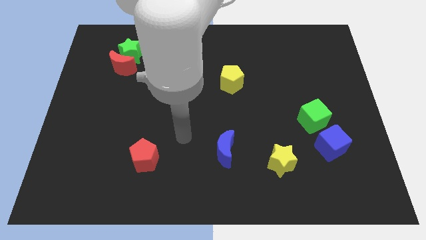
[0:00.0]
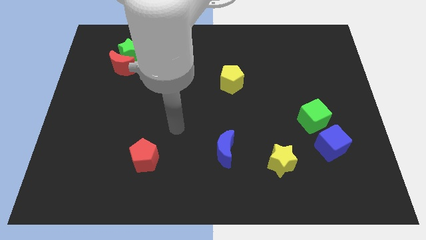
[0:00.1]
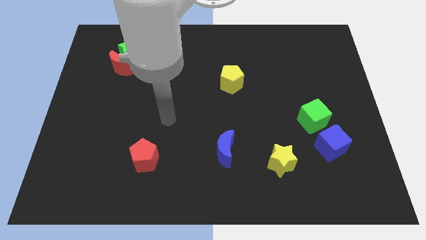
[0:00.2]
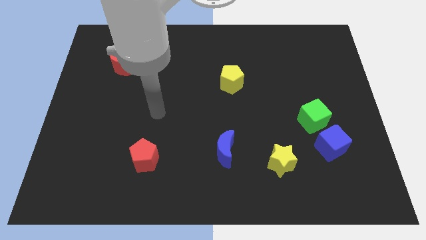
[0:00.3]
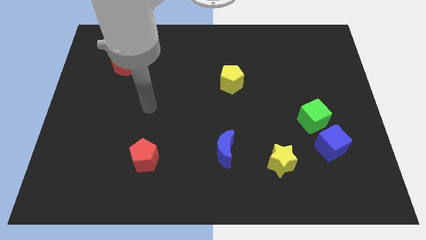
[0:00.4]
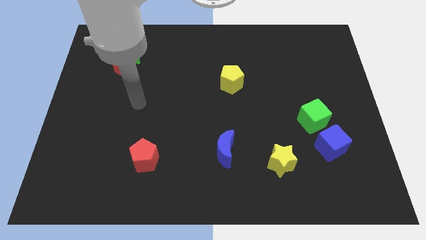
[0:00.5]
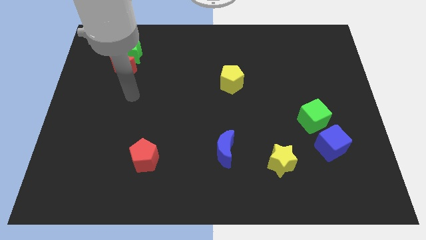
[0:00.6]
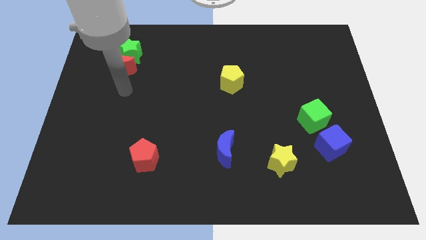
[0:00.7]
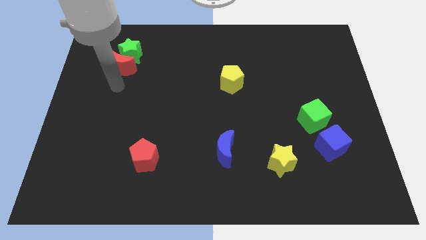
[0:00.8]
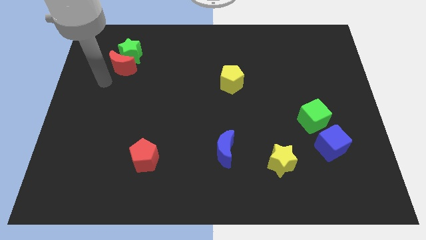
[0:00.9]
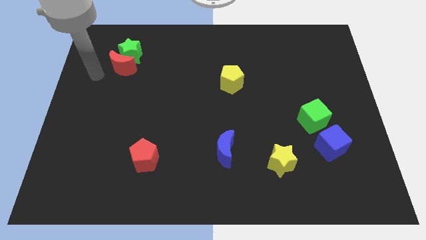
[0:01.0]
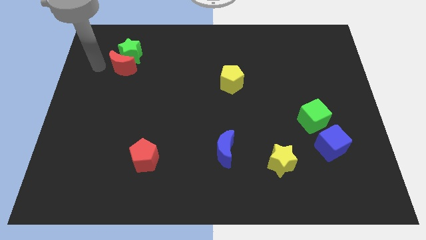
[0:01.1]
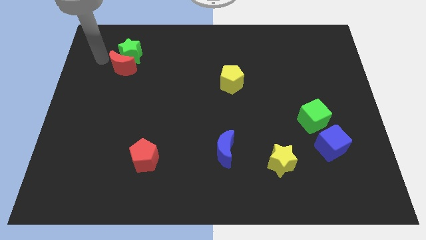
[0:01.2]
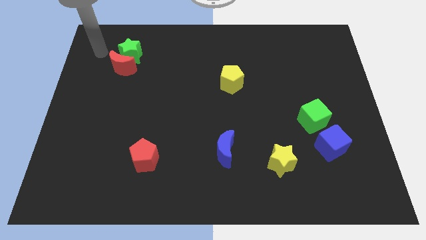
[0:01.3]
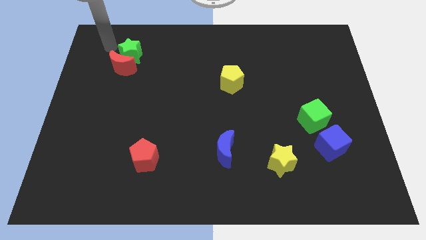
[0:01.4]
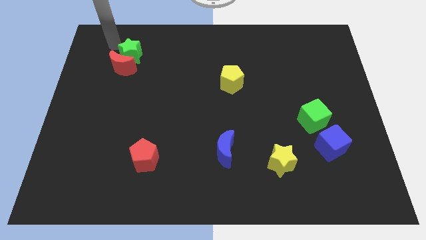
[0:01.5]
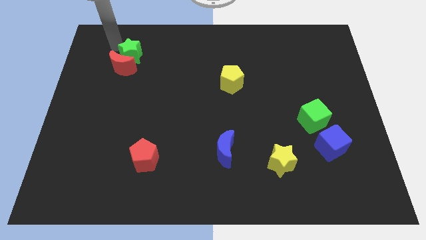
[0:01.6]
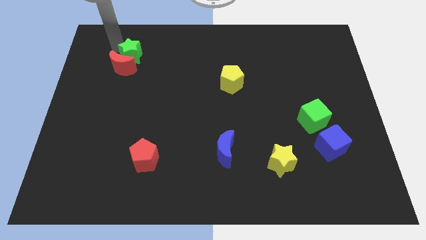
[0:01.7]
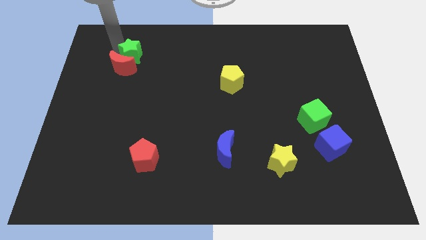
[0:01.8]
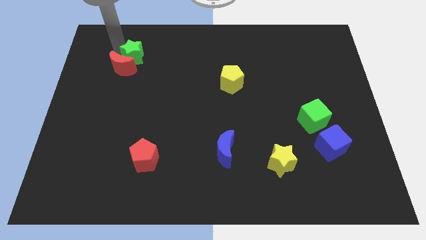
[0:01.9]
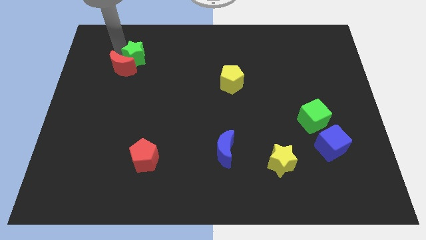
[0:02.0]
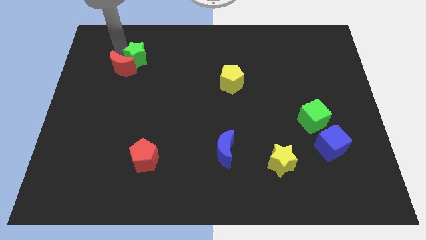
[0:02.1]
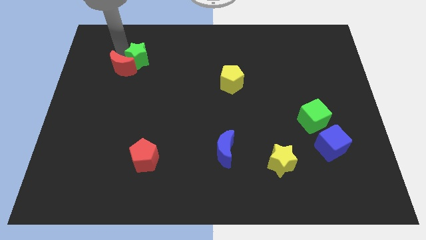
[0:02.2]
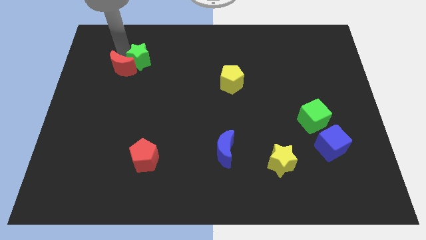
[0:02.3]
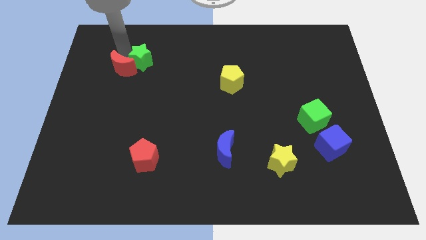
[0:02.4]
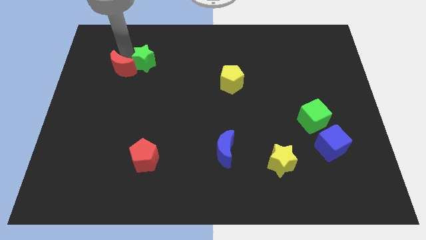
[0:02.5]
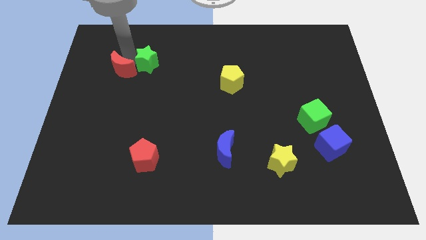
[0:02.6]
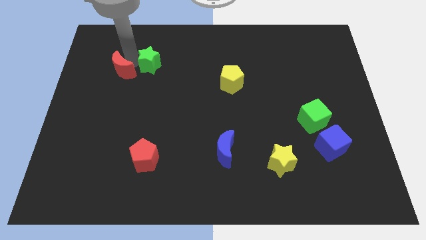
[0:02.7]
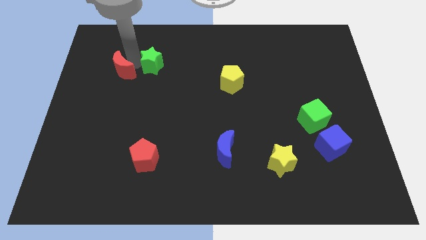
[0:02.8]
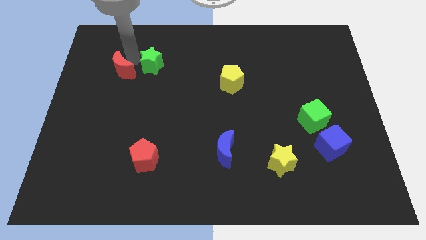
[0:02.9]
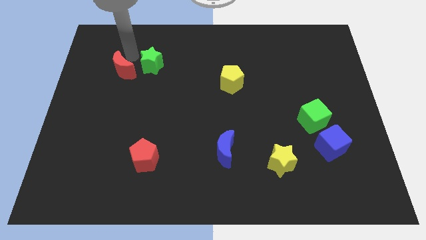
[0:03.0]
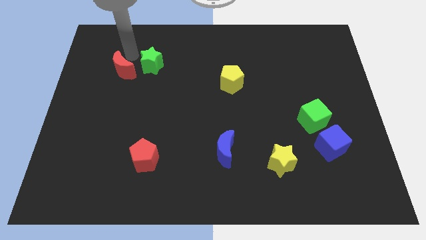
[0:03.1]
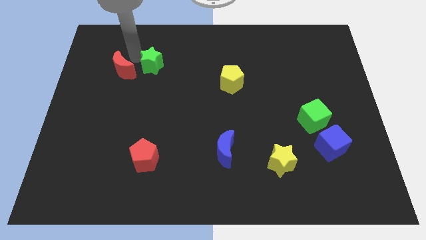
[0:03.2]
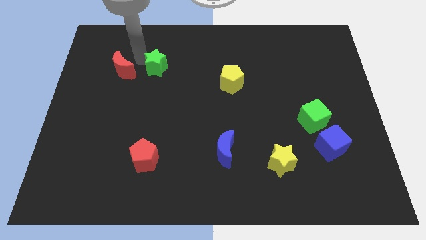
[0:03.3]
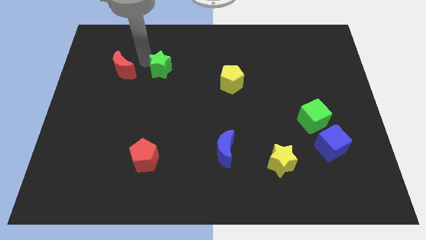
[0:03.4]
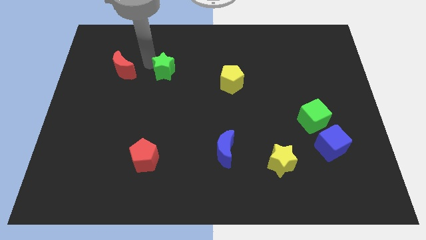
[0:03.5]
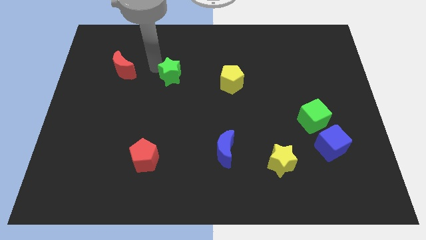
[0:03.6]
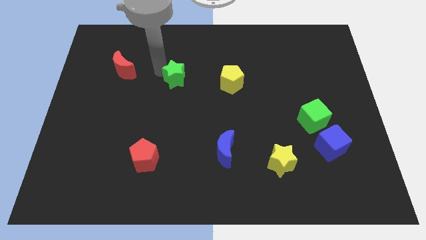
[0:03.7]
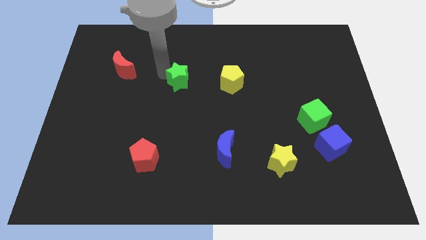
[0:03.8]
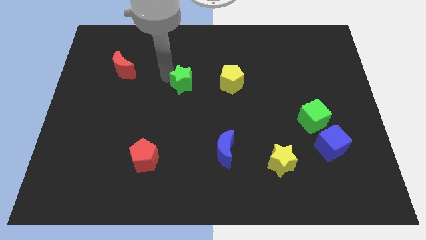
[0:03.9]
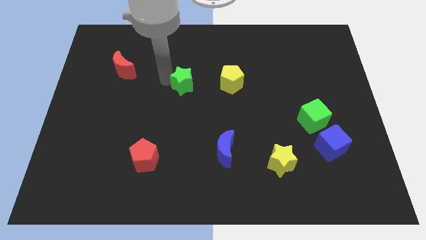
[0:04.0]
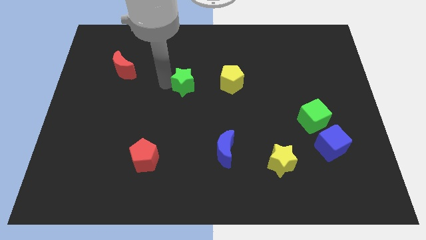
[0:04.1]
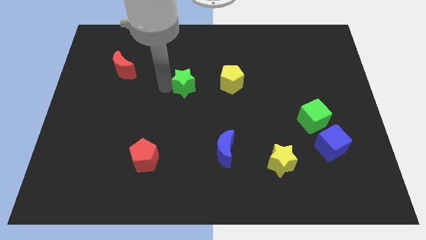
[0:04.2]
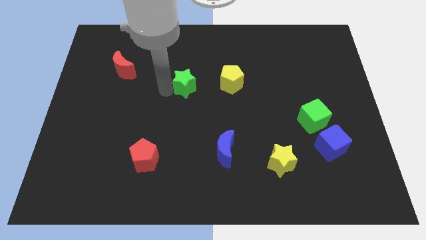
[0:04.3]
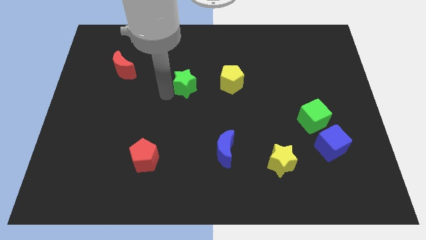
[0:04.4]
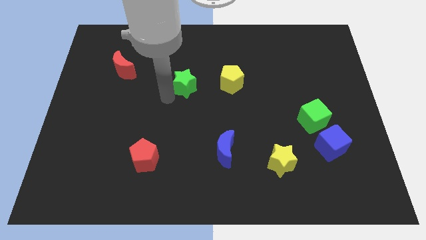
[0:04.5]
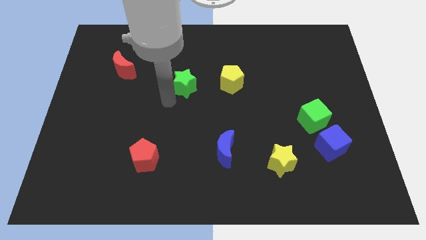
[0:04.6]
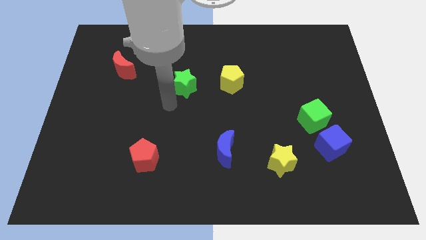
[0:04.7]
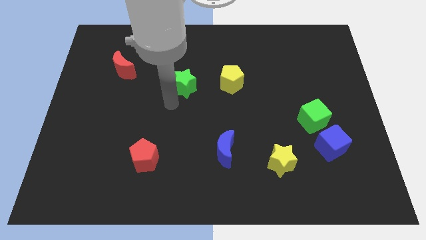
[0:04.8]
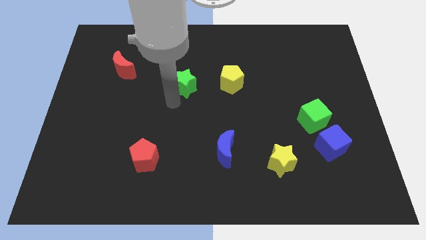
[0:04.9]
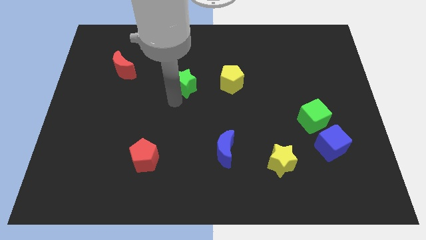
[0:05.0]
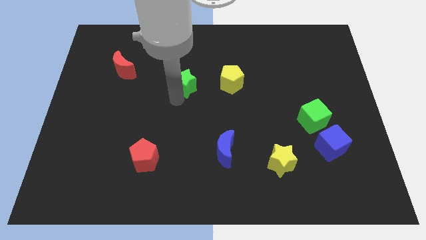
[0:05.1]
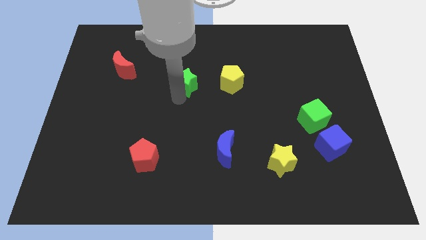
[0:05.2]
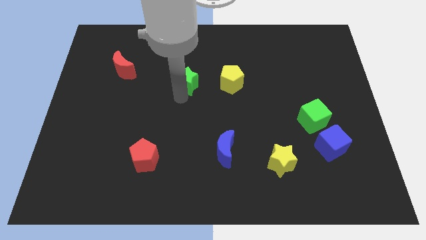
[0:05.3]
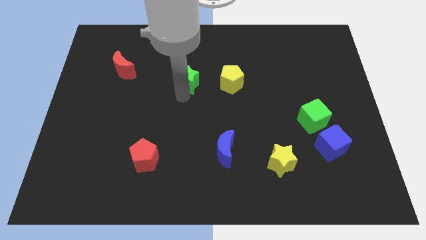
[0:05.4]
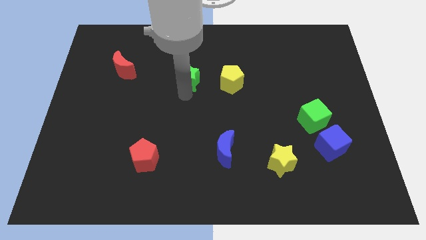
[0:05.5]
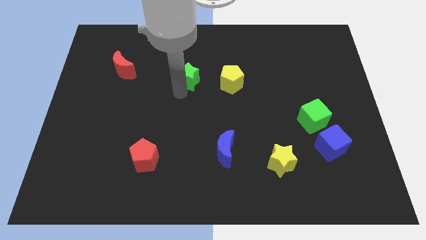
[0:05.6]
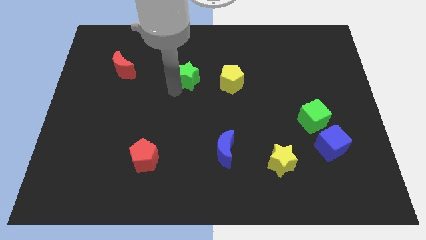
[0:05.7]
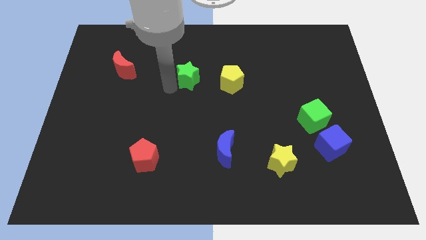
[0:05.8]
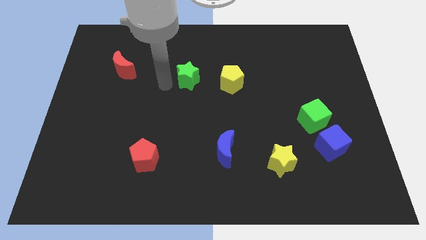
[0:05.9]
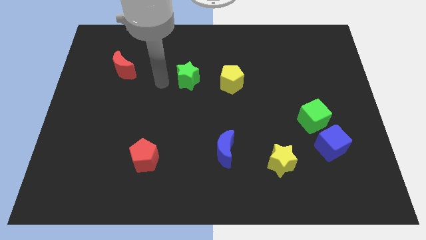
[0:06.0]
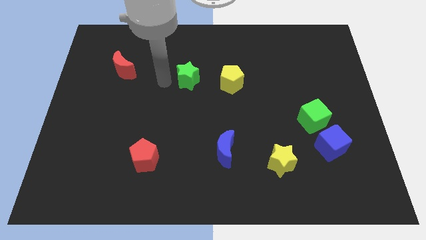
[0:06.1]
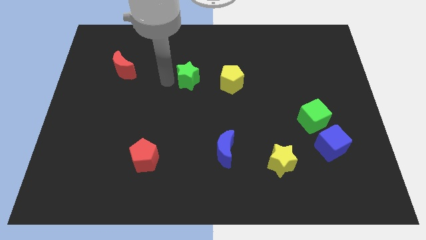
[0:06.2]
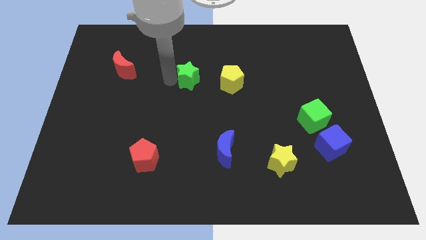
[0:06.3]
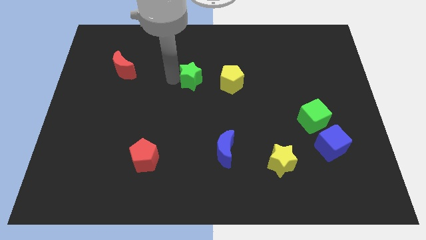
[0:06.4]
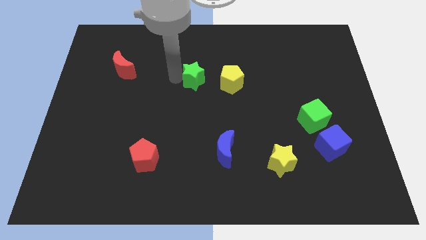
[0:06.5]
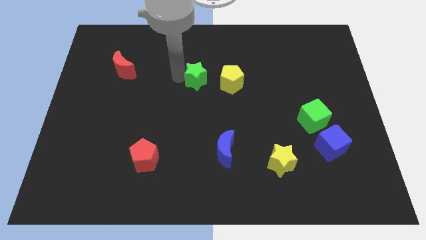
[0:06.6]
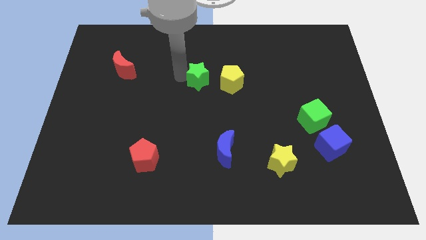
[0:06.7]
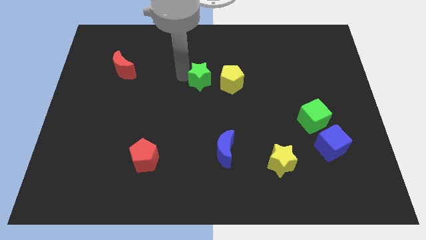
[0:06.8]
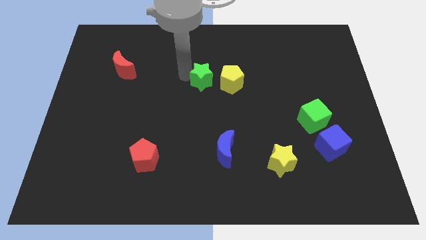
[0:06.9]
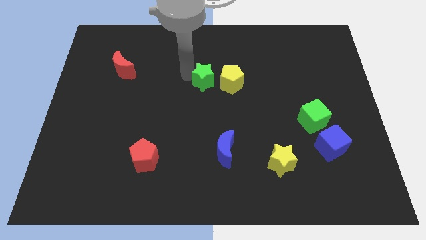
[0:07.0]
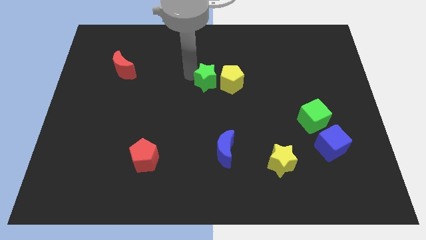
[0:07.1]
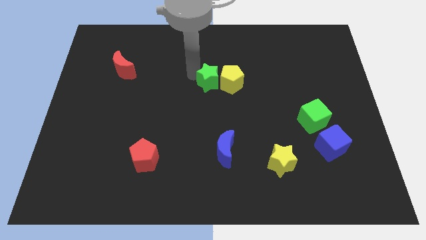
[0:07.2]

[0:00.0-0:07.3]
push the green star next to the yellow pentagon
